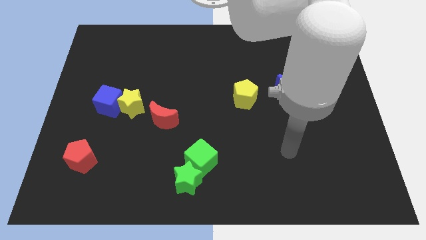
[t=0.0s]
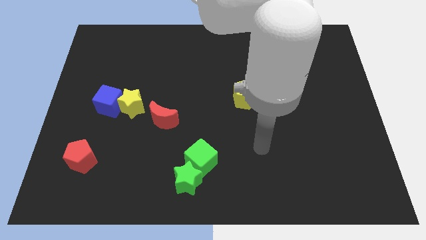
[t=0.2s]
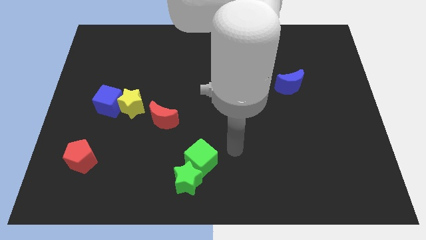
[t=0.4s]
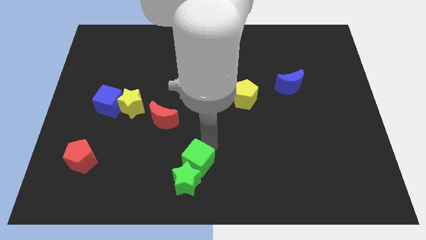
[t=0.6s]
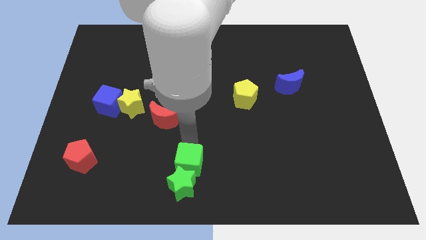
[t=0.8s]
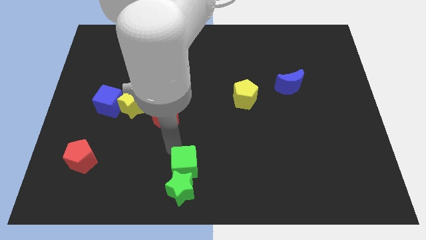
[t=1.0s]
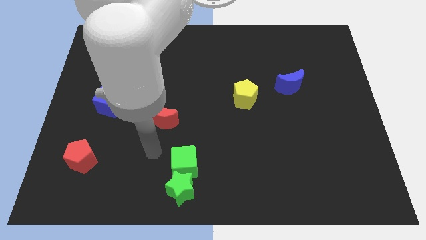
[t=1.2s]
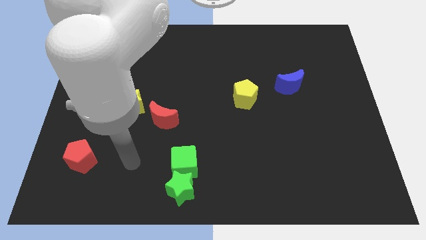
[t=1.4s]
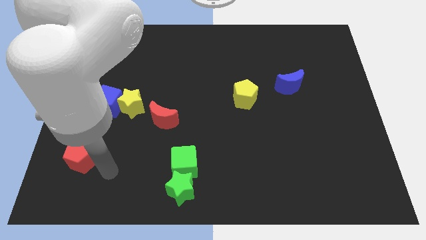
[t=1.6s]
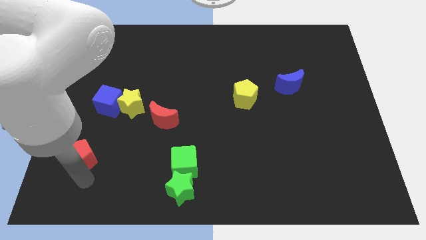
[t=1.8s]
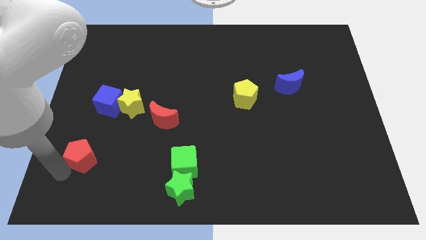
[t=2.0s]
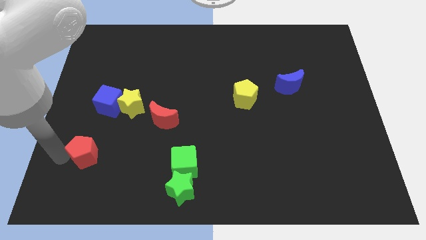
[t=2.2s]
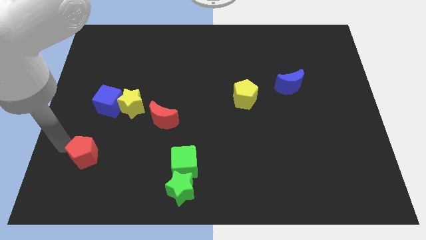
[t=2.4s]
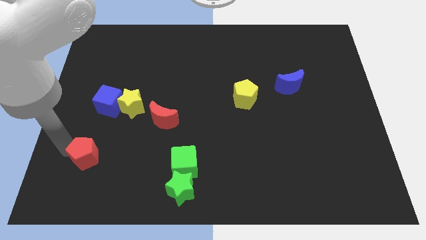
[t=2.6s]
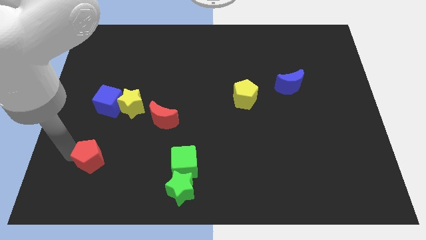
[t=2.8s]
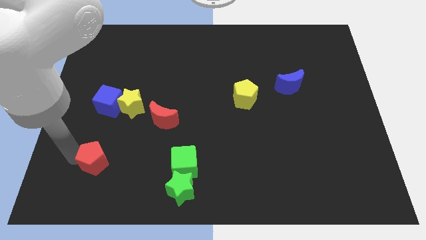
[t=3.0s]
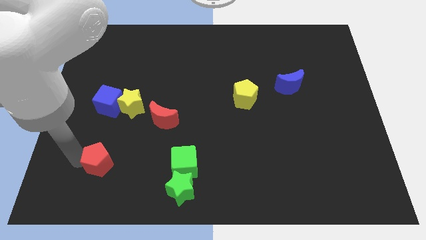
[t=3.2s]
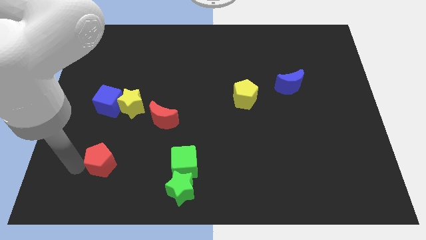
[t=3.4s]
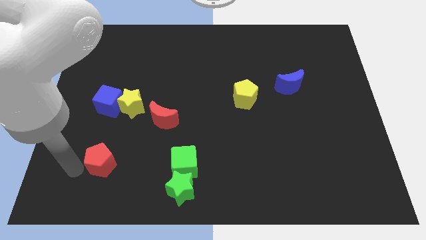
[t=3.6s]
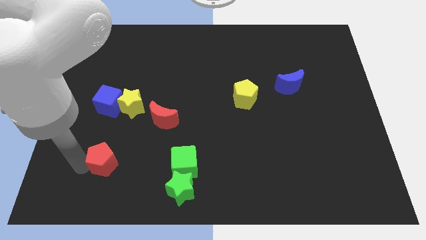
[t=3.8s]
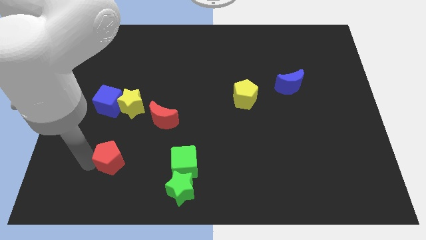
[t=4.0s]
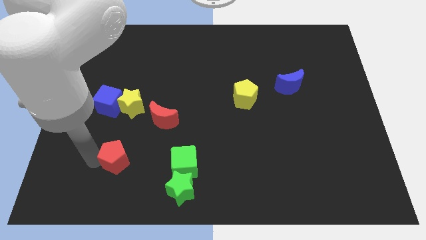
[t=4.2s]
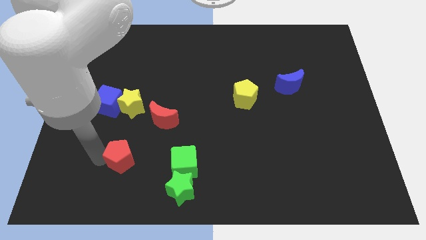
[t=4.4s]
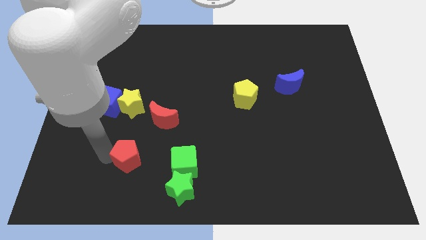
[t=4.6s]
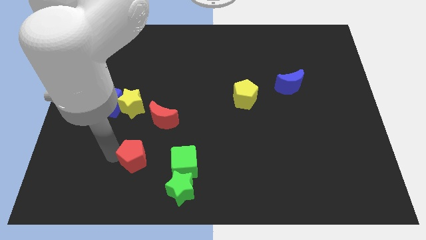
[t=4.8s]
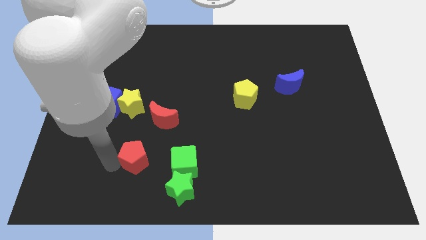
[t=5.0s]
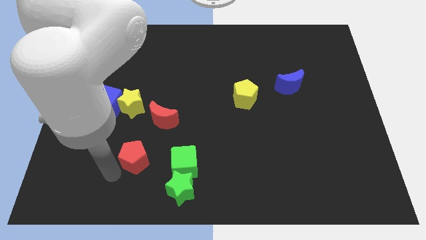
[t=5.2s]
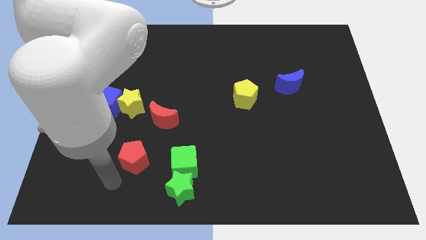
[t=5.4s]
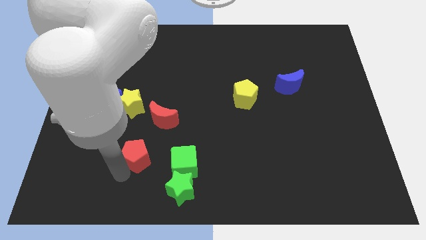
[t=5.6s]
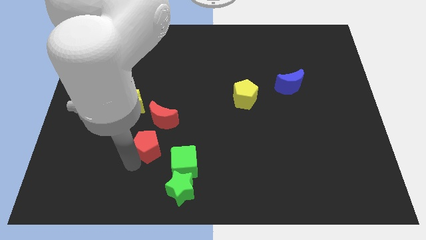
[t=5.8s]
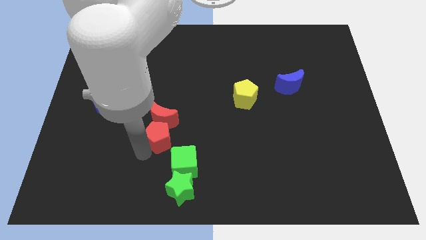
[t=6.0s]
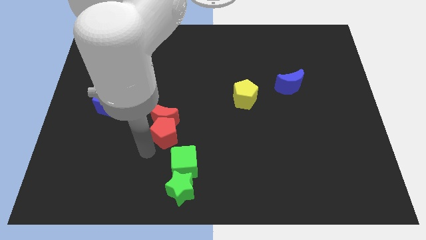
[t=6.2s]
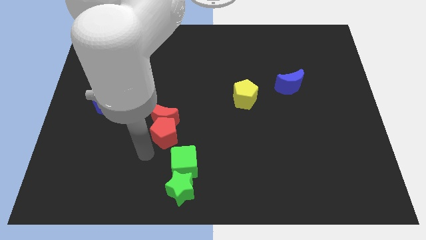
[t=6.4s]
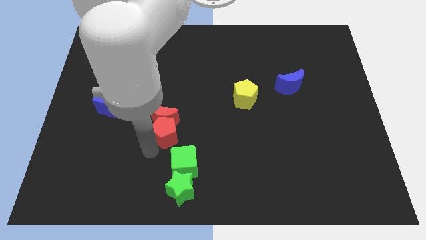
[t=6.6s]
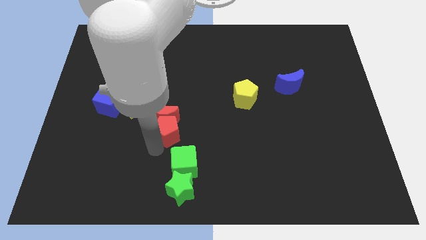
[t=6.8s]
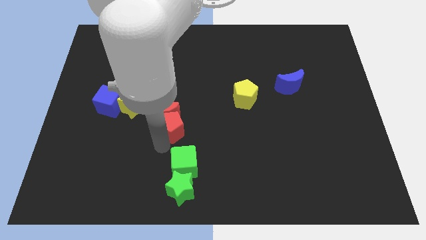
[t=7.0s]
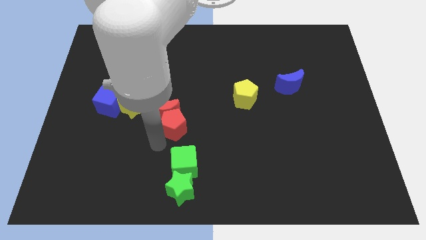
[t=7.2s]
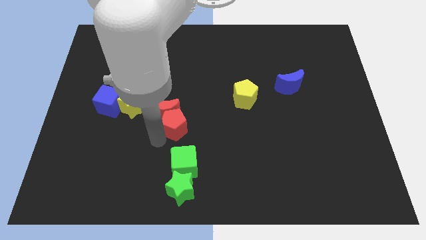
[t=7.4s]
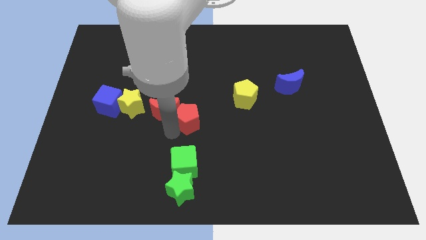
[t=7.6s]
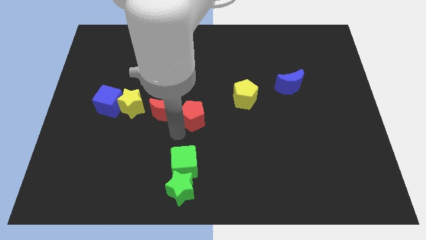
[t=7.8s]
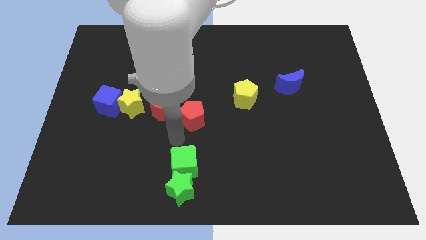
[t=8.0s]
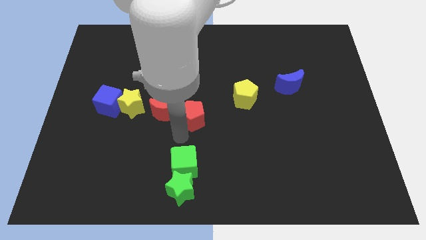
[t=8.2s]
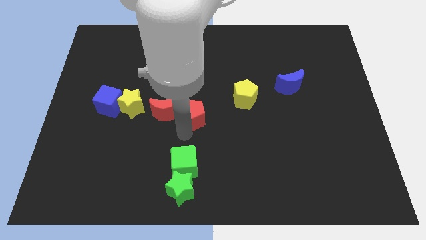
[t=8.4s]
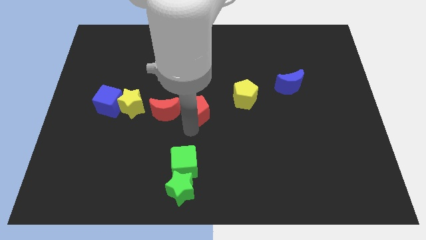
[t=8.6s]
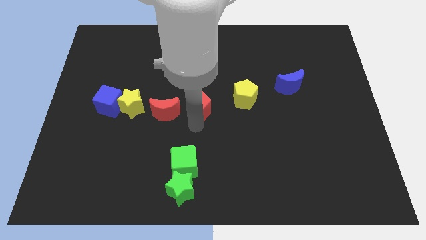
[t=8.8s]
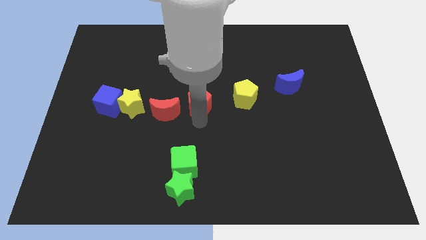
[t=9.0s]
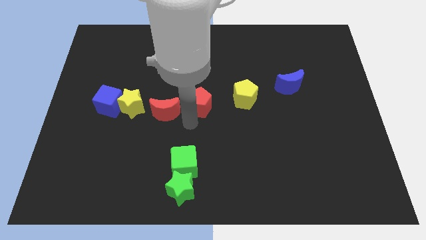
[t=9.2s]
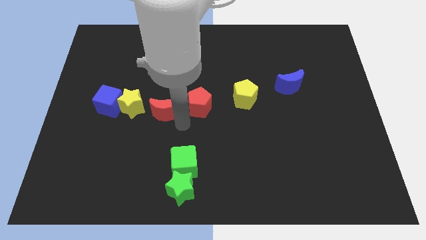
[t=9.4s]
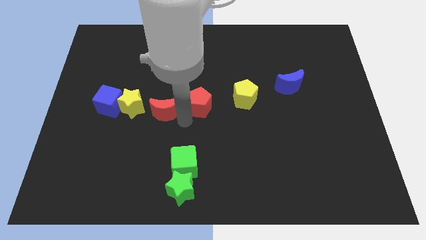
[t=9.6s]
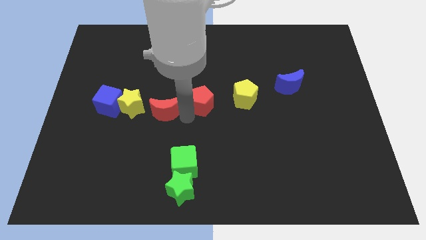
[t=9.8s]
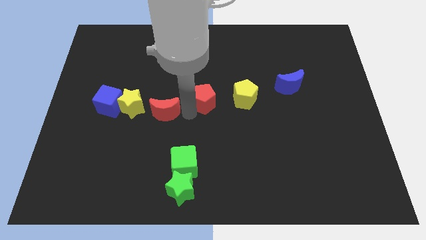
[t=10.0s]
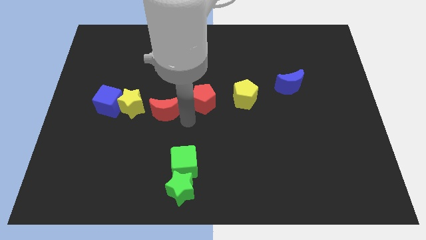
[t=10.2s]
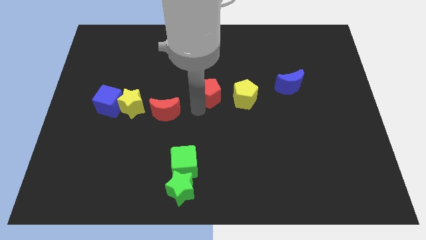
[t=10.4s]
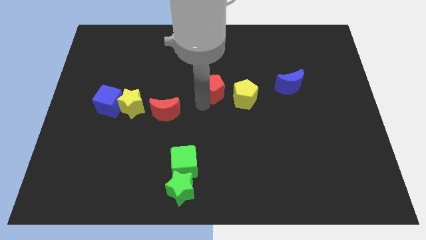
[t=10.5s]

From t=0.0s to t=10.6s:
move the red pentagon to the top left side of the yellow pentagon

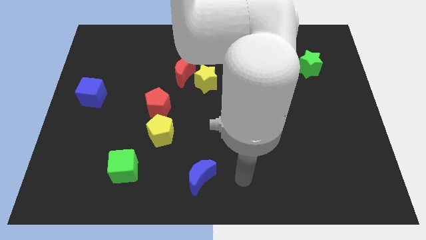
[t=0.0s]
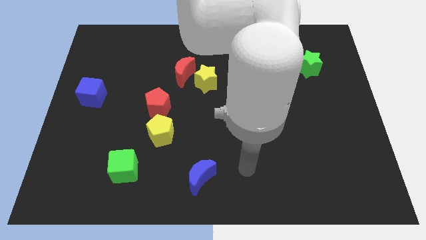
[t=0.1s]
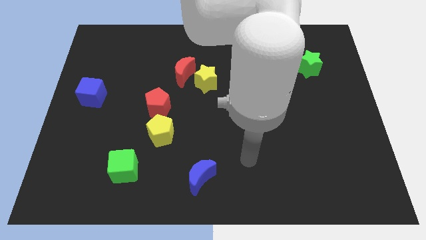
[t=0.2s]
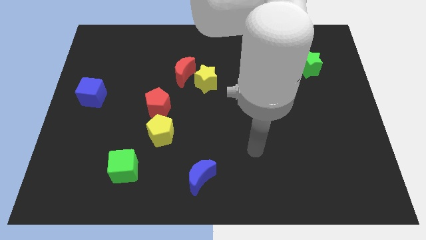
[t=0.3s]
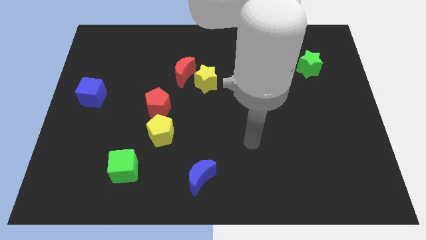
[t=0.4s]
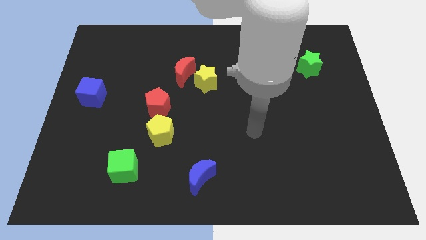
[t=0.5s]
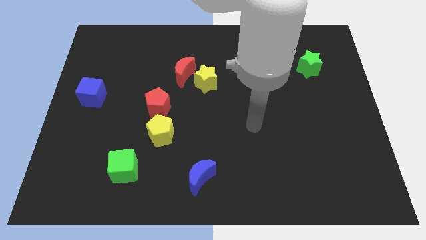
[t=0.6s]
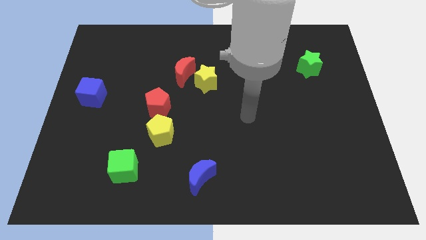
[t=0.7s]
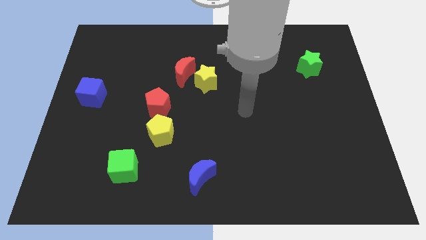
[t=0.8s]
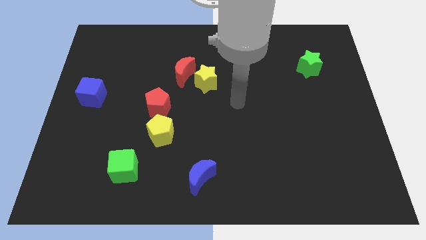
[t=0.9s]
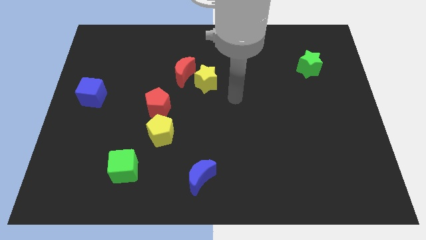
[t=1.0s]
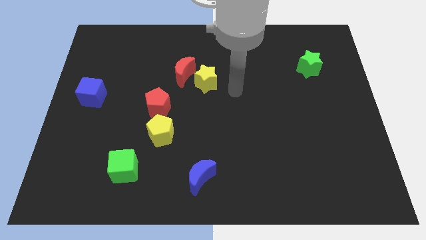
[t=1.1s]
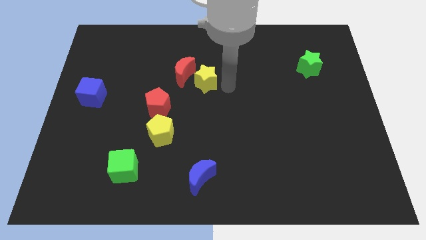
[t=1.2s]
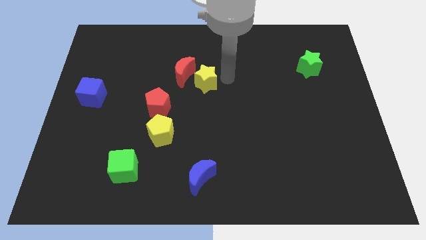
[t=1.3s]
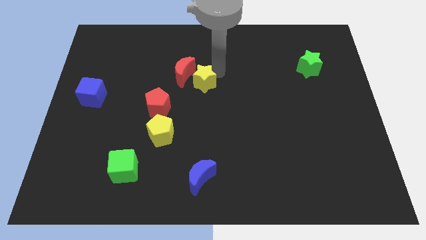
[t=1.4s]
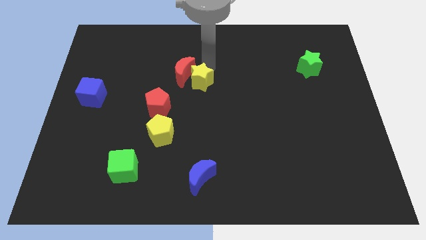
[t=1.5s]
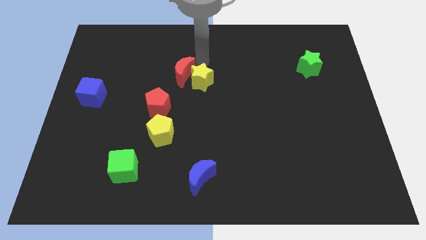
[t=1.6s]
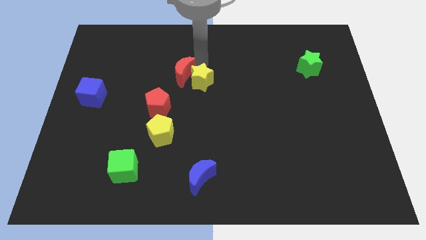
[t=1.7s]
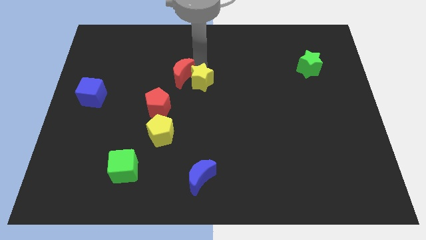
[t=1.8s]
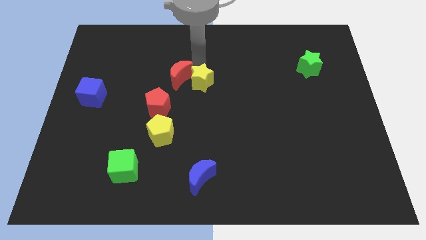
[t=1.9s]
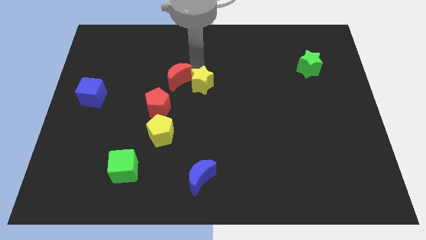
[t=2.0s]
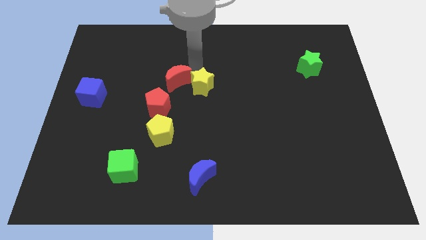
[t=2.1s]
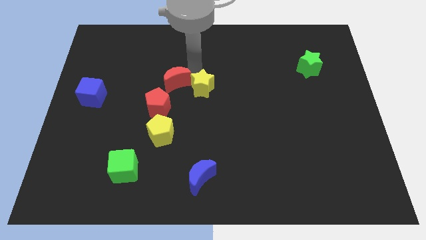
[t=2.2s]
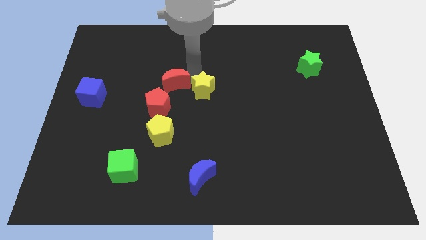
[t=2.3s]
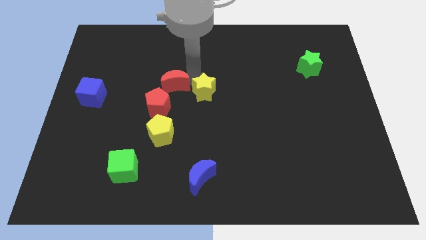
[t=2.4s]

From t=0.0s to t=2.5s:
slide the yellow star right of the red pentagon

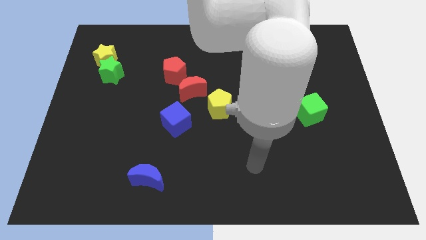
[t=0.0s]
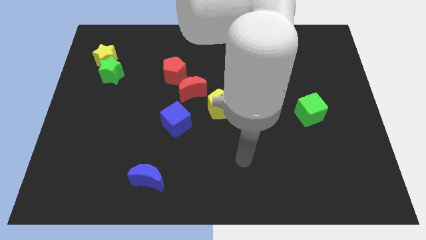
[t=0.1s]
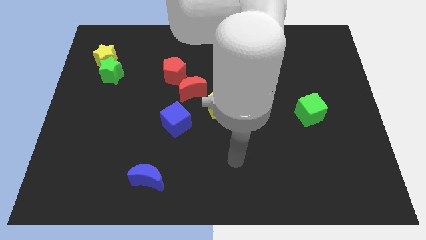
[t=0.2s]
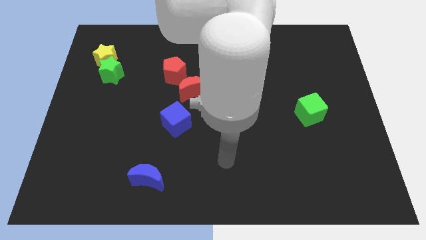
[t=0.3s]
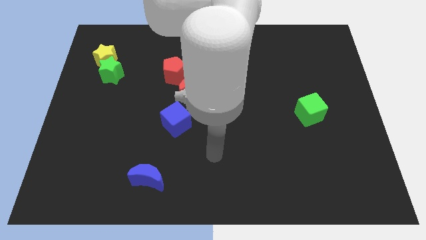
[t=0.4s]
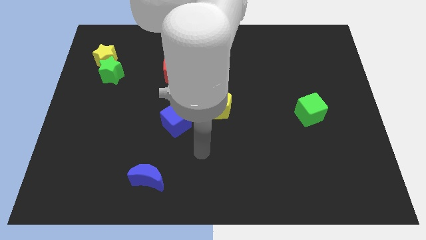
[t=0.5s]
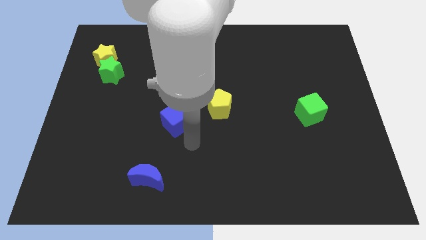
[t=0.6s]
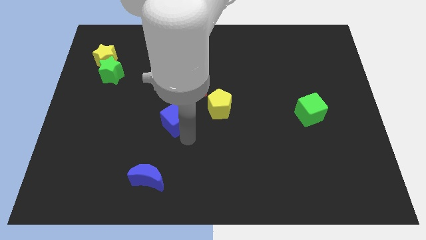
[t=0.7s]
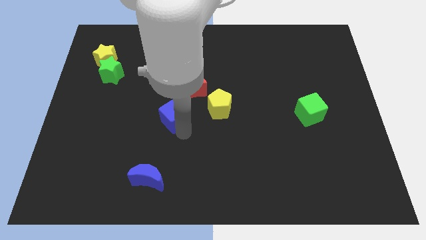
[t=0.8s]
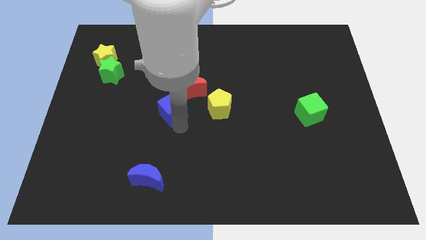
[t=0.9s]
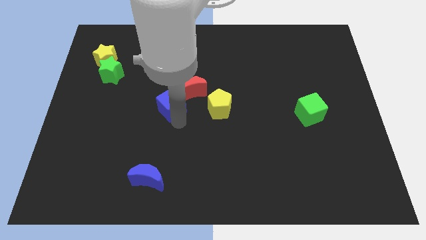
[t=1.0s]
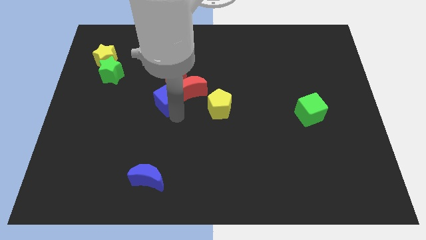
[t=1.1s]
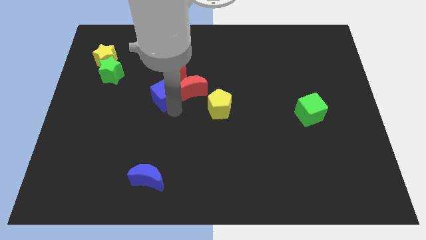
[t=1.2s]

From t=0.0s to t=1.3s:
put the blue cube to the bottom left side of the red pentagon
